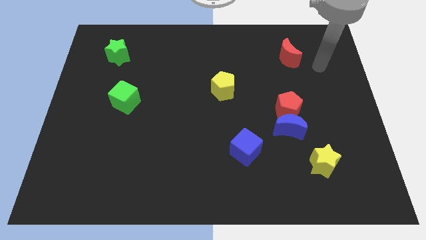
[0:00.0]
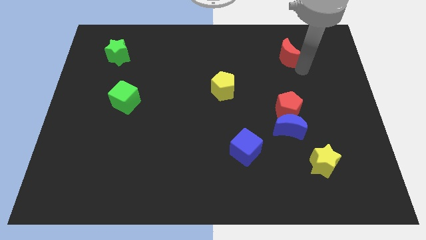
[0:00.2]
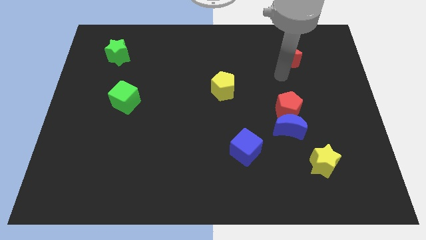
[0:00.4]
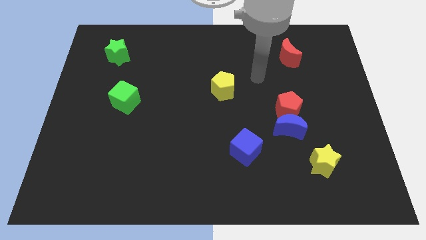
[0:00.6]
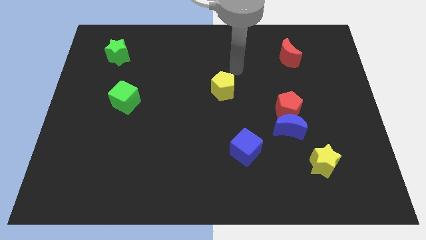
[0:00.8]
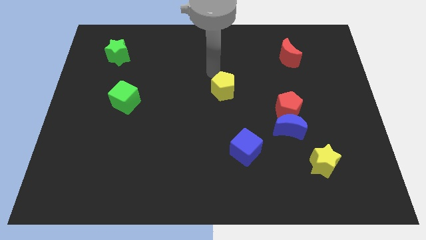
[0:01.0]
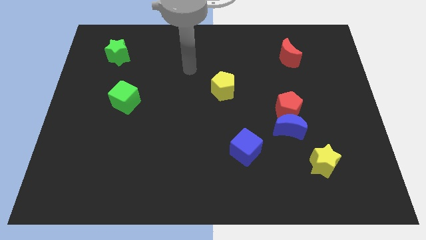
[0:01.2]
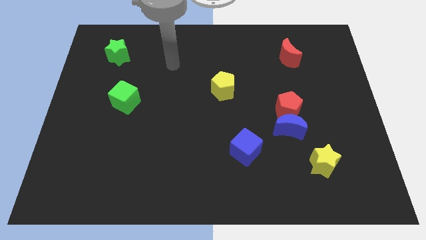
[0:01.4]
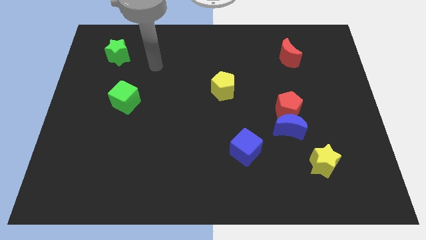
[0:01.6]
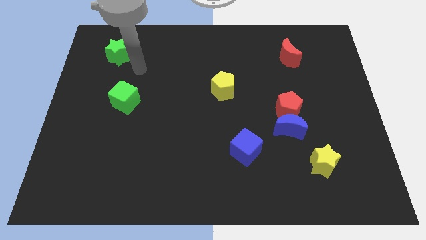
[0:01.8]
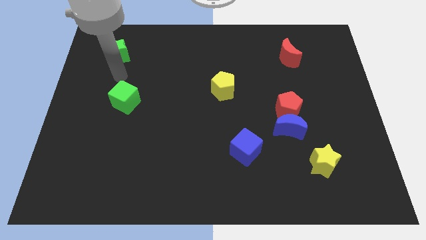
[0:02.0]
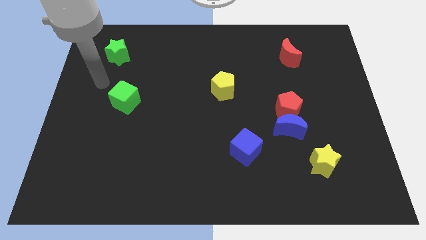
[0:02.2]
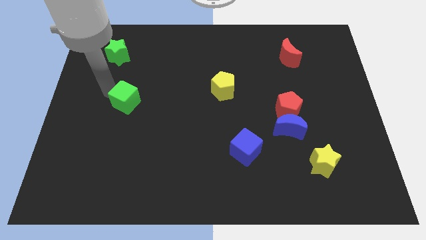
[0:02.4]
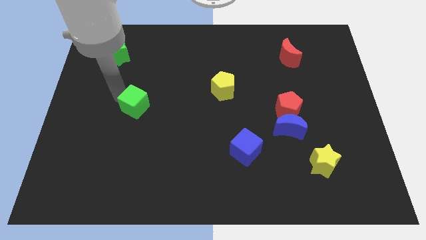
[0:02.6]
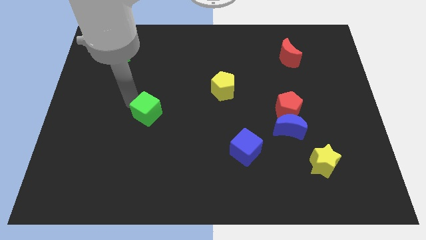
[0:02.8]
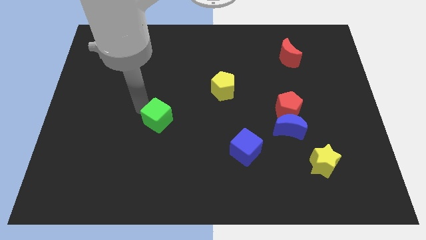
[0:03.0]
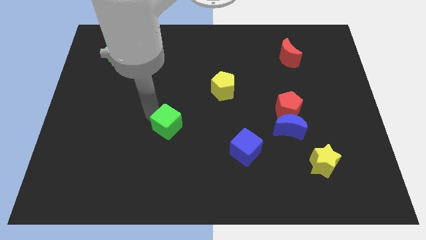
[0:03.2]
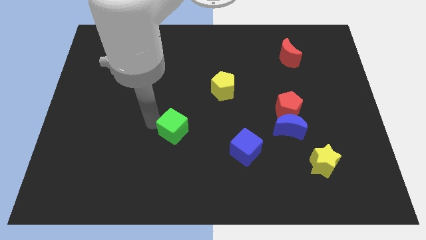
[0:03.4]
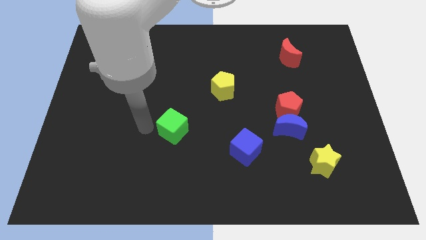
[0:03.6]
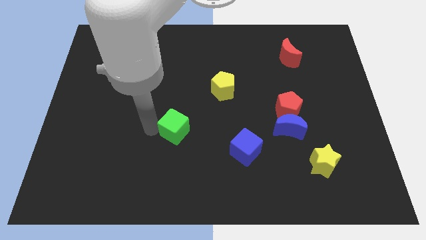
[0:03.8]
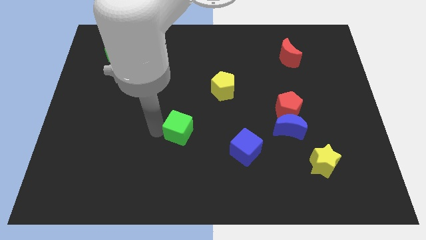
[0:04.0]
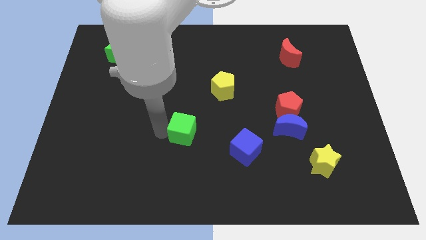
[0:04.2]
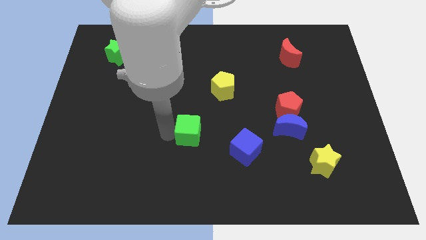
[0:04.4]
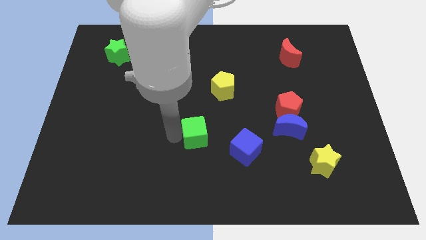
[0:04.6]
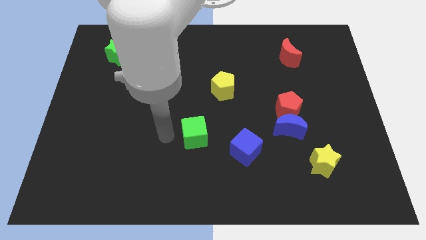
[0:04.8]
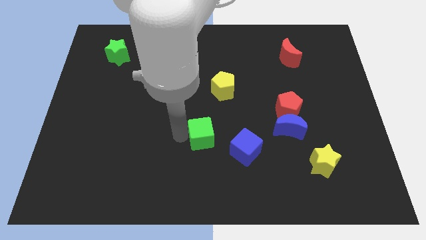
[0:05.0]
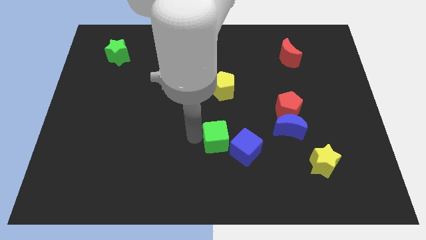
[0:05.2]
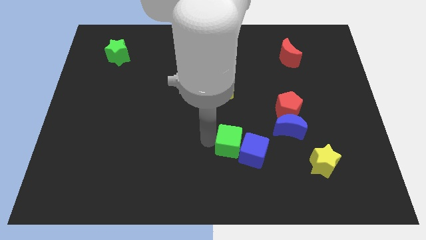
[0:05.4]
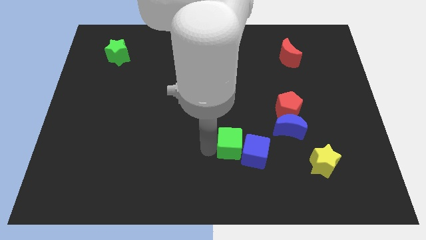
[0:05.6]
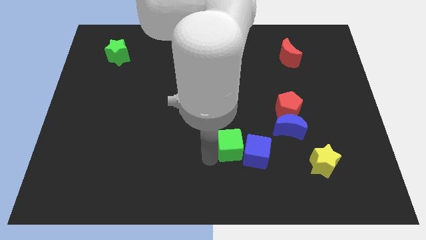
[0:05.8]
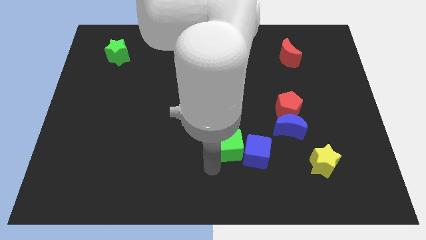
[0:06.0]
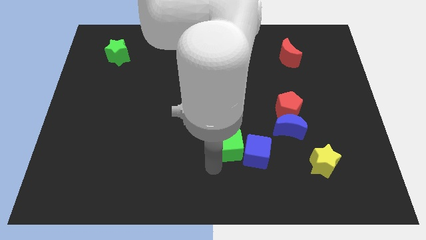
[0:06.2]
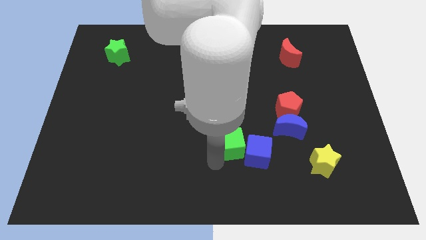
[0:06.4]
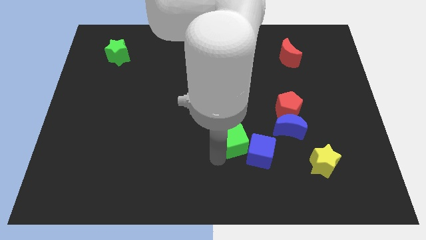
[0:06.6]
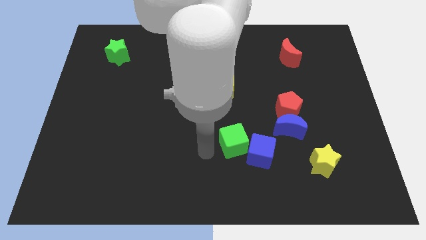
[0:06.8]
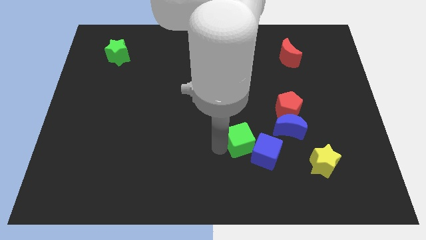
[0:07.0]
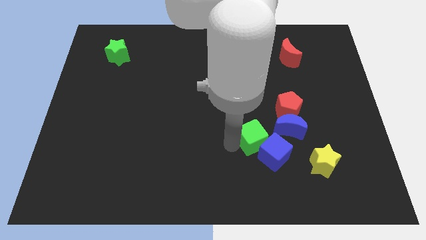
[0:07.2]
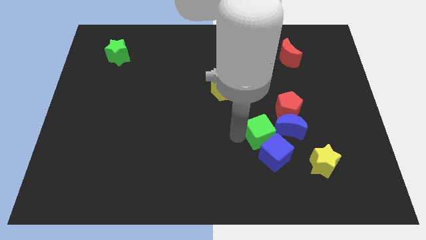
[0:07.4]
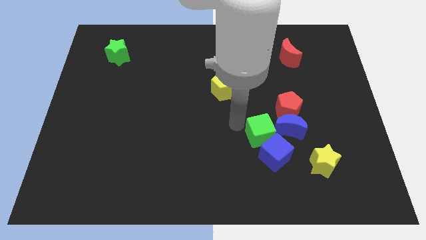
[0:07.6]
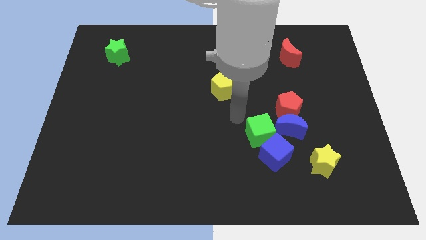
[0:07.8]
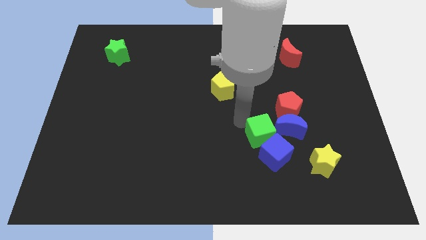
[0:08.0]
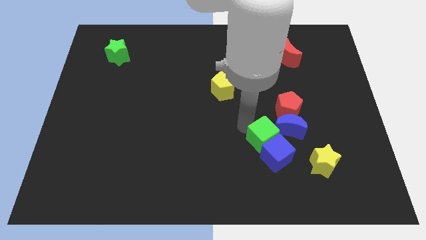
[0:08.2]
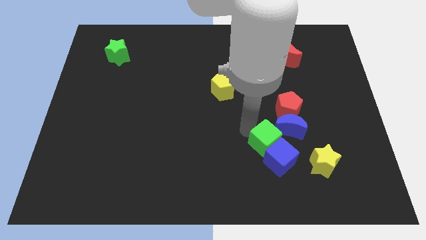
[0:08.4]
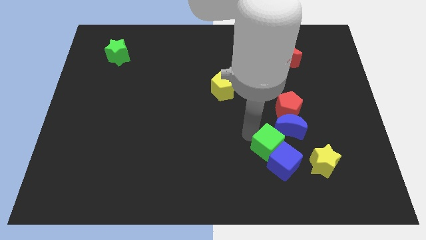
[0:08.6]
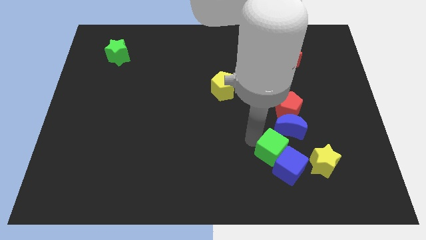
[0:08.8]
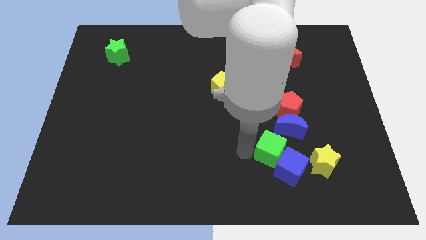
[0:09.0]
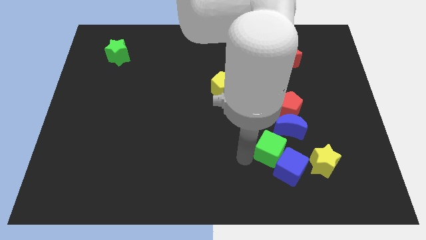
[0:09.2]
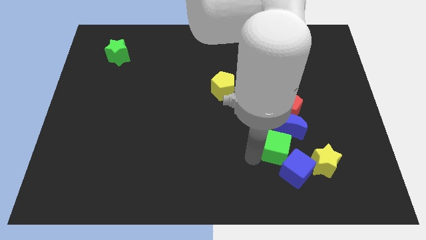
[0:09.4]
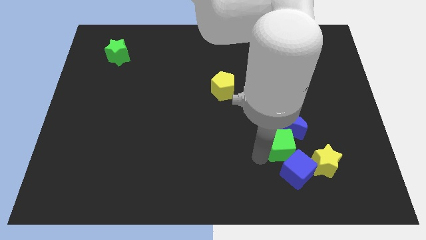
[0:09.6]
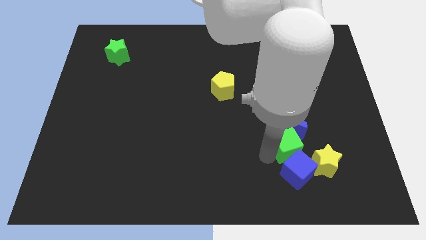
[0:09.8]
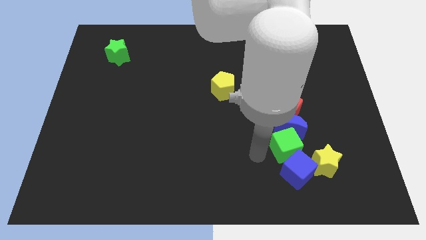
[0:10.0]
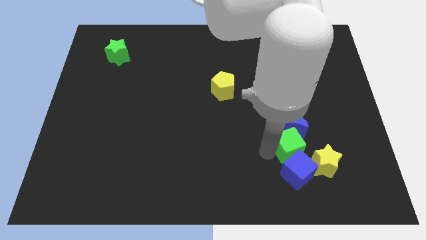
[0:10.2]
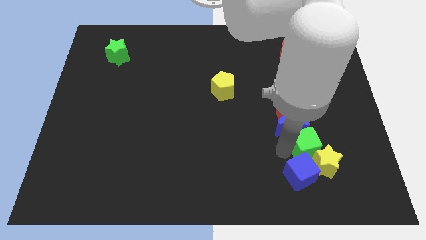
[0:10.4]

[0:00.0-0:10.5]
push the green cube to the top side of the yellow star

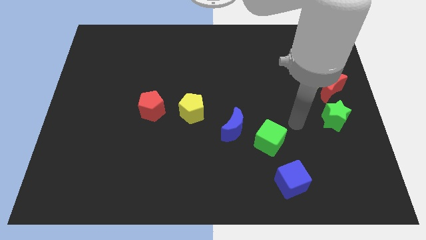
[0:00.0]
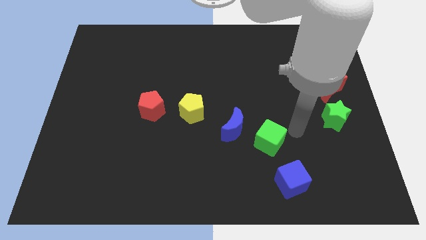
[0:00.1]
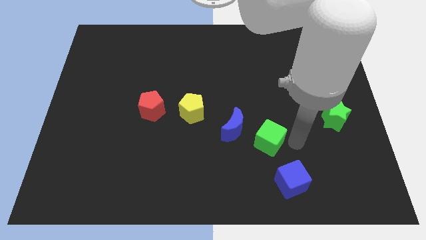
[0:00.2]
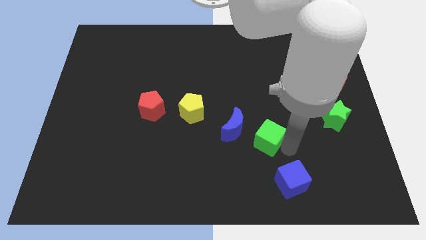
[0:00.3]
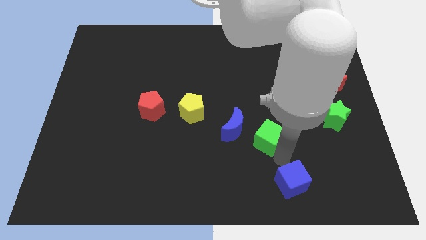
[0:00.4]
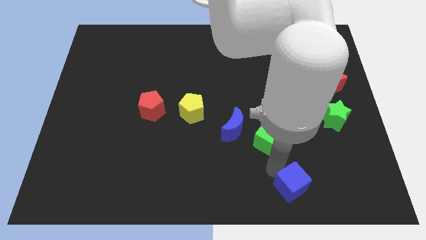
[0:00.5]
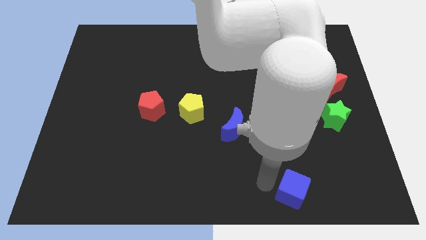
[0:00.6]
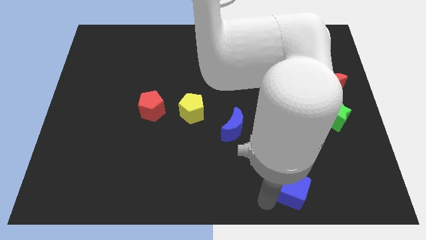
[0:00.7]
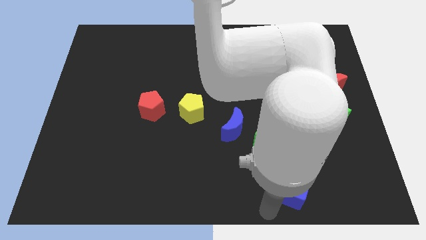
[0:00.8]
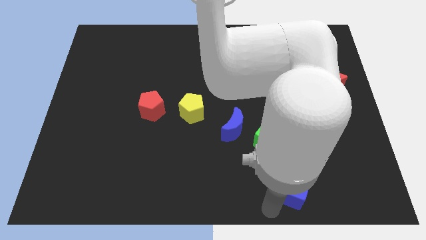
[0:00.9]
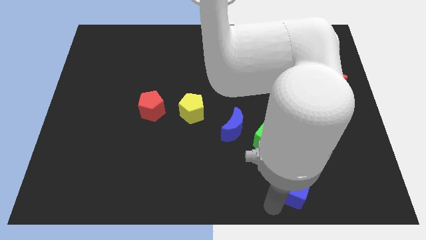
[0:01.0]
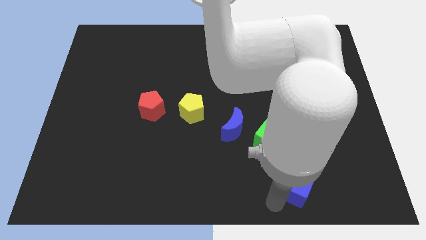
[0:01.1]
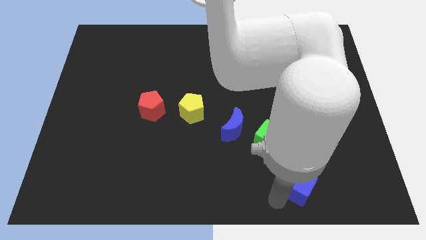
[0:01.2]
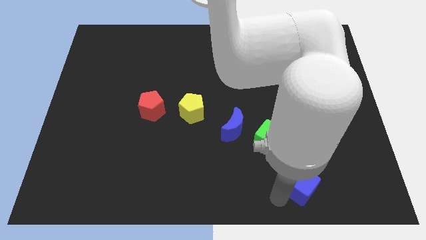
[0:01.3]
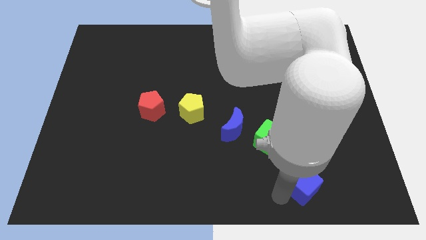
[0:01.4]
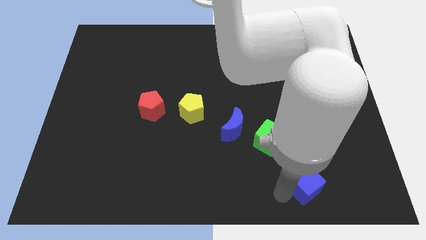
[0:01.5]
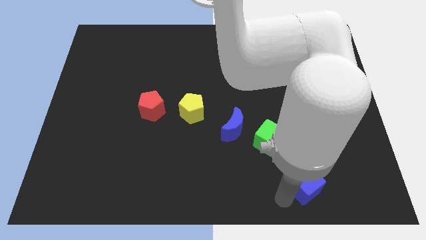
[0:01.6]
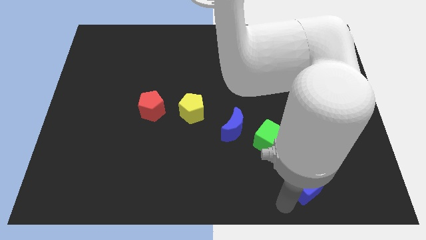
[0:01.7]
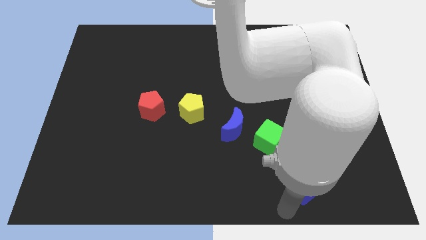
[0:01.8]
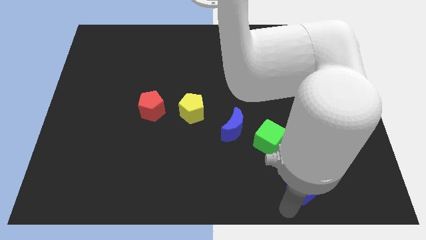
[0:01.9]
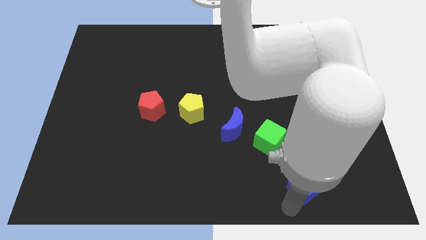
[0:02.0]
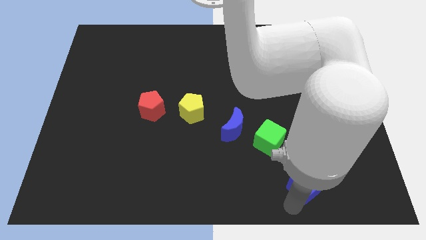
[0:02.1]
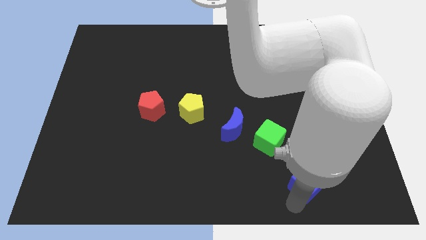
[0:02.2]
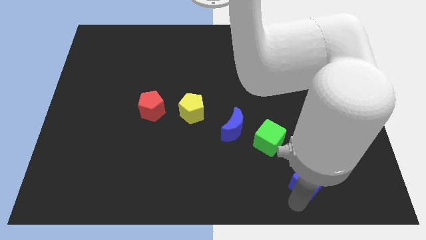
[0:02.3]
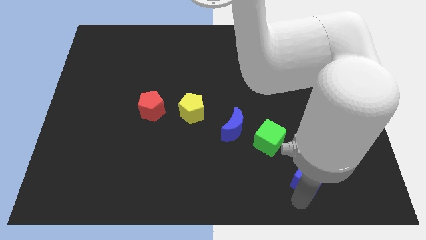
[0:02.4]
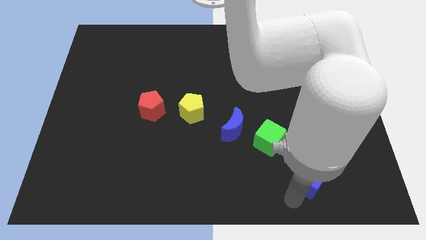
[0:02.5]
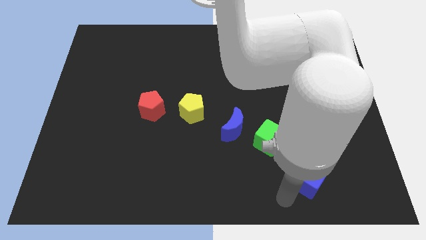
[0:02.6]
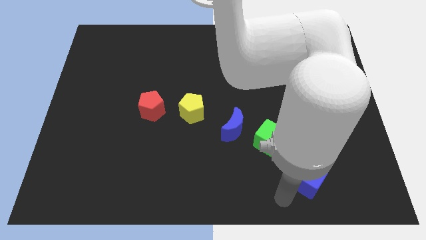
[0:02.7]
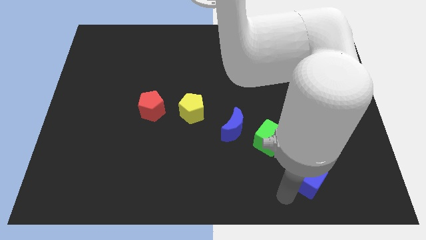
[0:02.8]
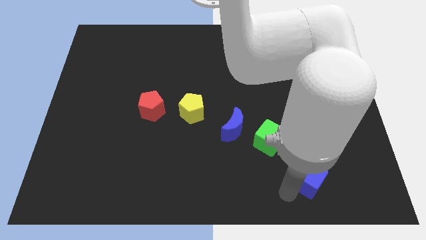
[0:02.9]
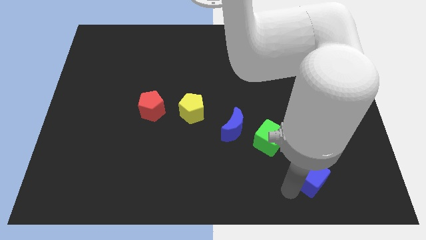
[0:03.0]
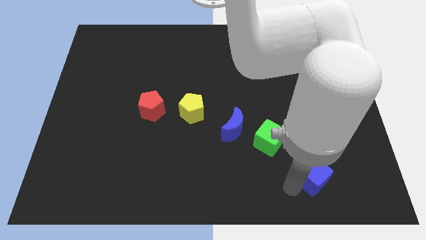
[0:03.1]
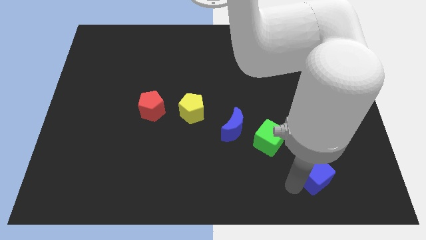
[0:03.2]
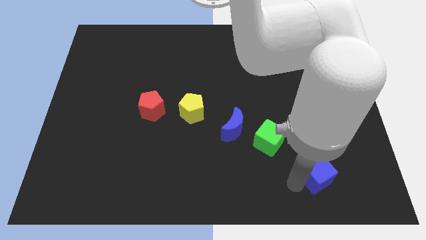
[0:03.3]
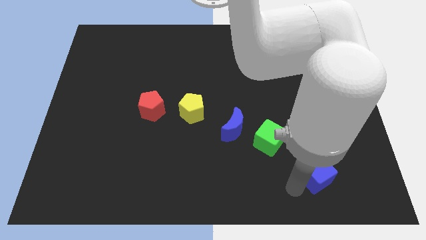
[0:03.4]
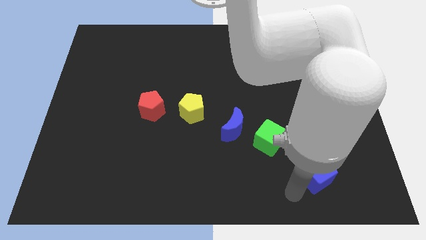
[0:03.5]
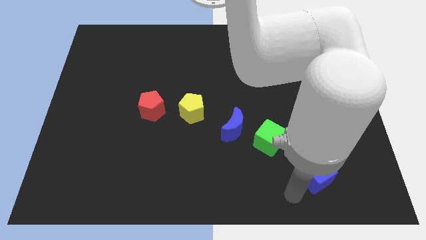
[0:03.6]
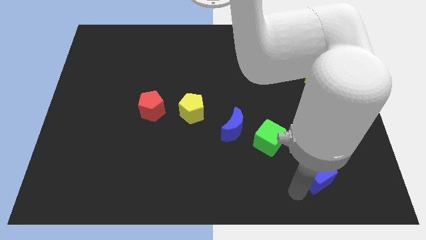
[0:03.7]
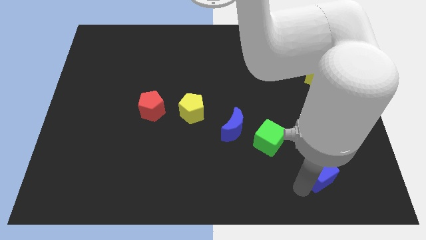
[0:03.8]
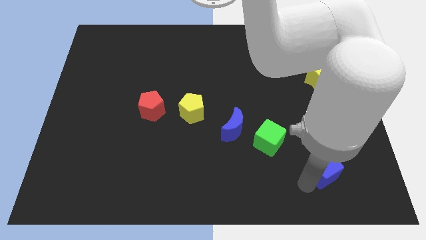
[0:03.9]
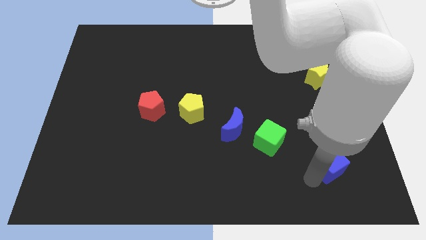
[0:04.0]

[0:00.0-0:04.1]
slide the blue cube to the bottom side of the green star
